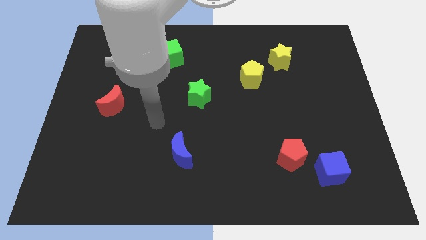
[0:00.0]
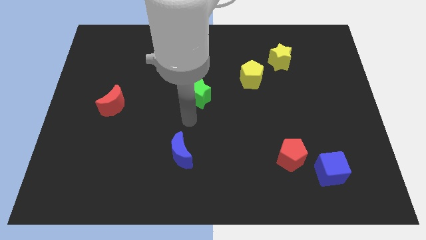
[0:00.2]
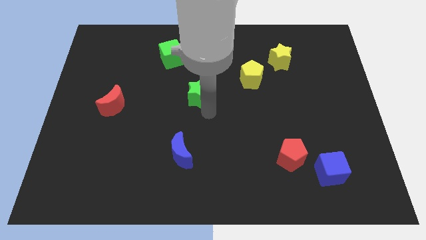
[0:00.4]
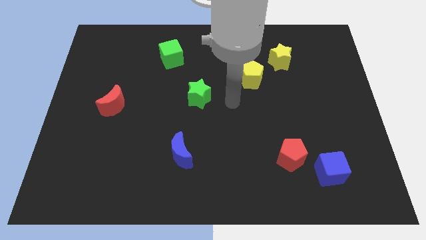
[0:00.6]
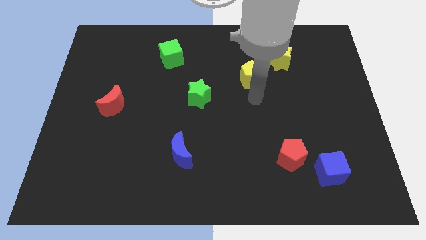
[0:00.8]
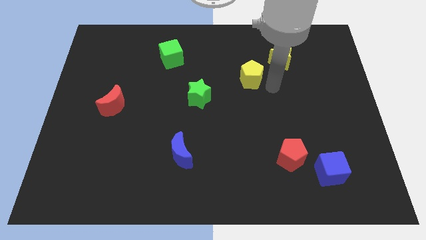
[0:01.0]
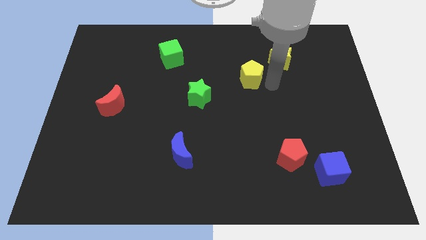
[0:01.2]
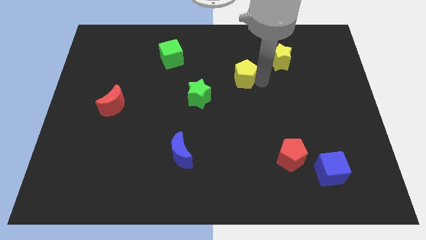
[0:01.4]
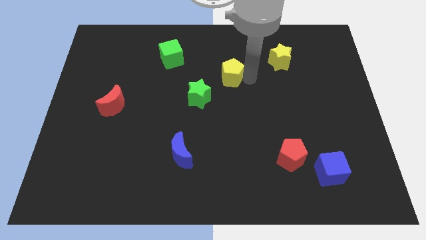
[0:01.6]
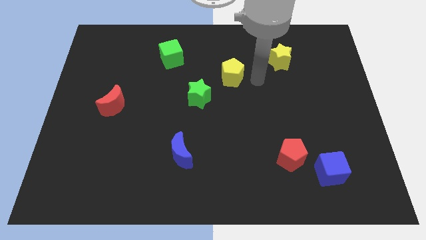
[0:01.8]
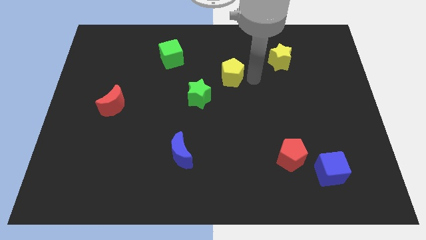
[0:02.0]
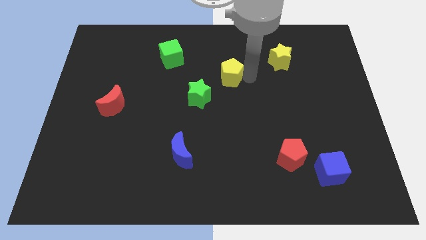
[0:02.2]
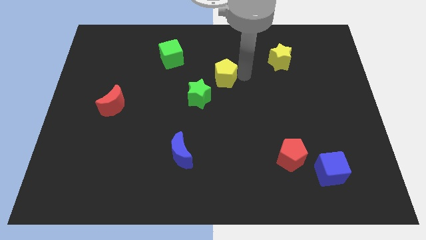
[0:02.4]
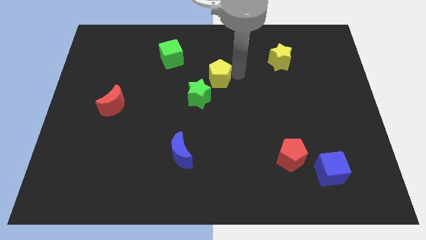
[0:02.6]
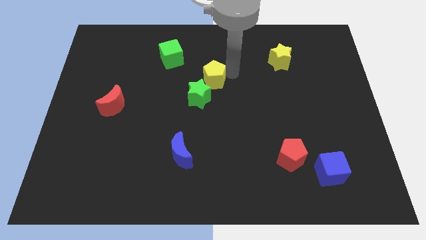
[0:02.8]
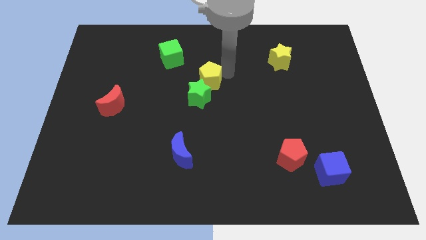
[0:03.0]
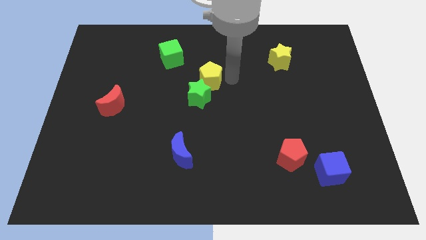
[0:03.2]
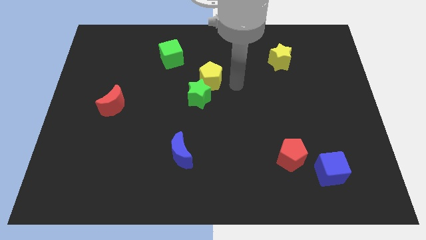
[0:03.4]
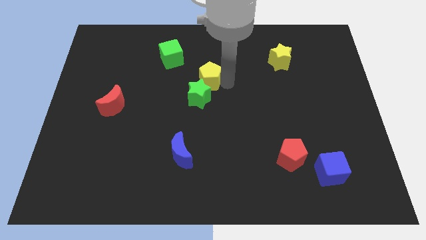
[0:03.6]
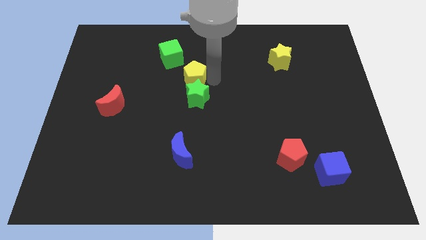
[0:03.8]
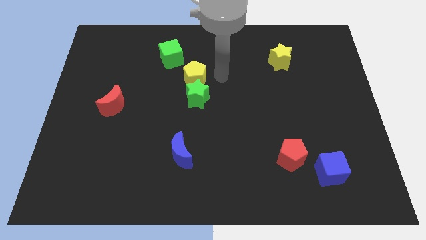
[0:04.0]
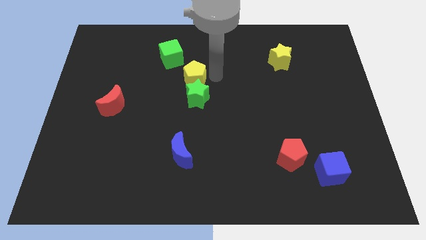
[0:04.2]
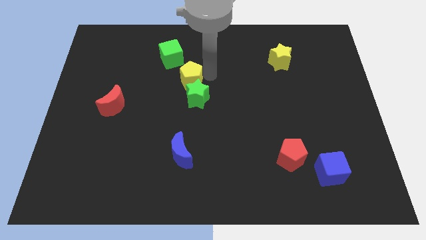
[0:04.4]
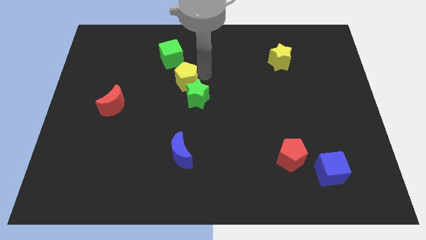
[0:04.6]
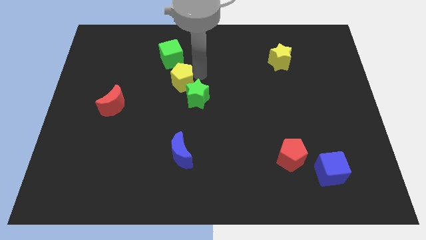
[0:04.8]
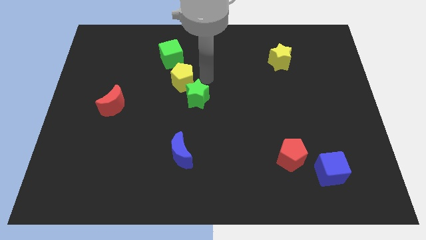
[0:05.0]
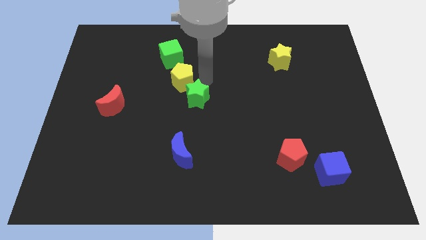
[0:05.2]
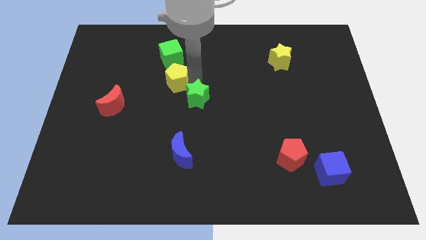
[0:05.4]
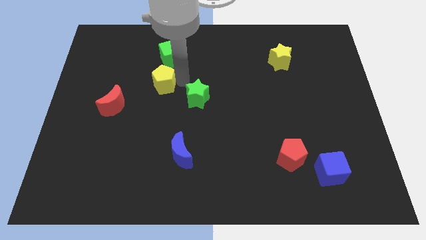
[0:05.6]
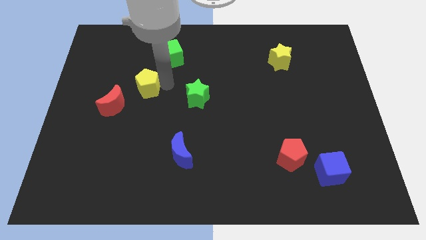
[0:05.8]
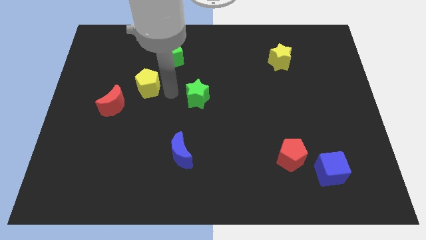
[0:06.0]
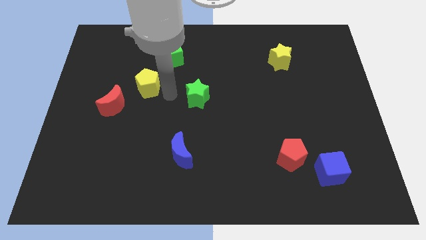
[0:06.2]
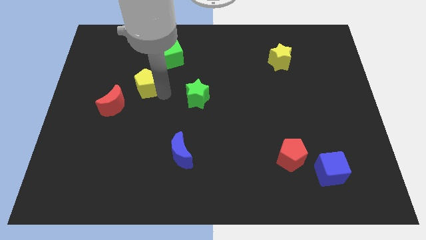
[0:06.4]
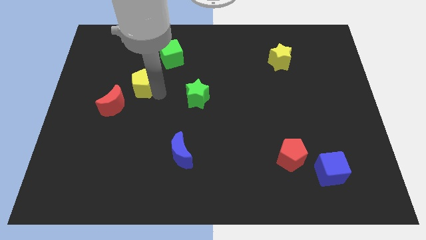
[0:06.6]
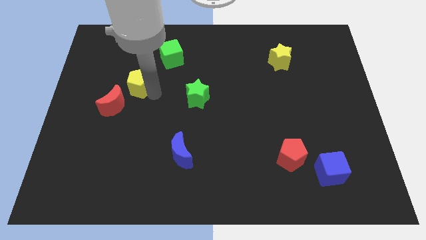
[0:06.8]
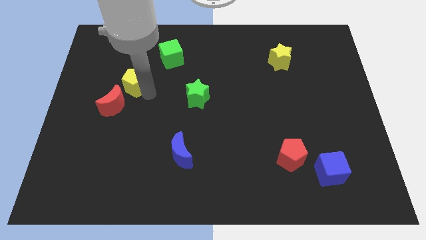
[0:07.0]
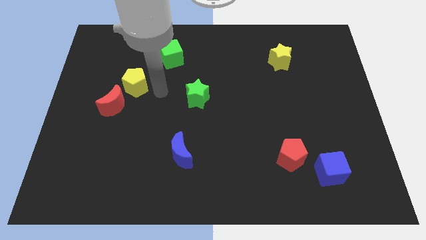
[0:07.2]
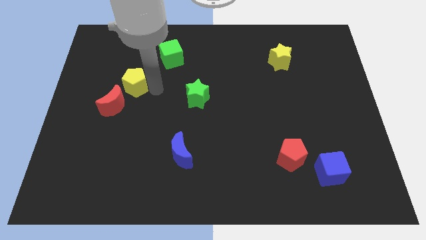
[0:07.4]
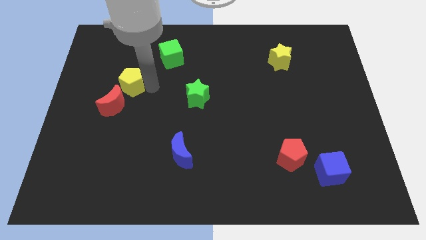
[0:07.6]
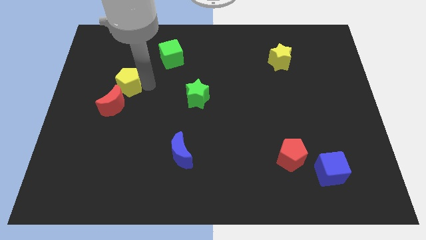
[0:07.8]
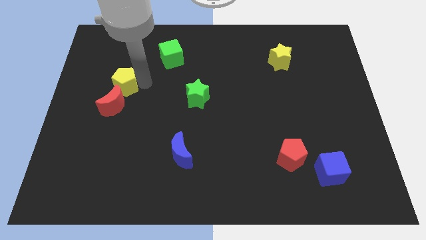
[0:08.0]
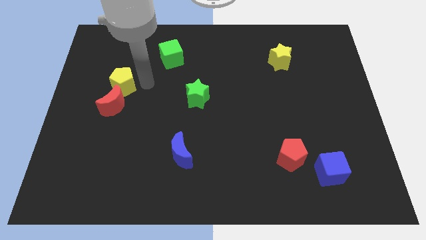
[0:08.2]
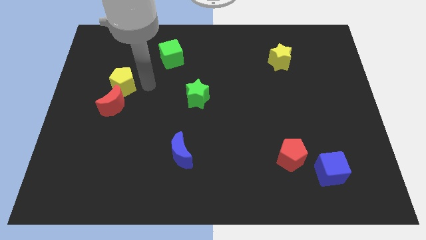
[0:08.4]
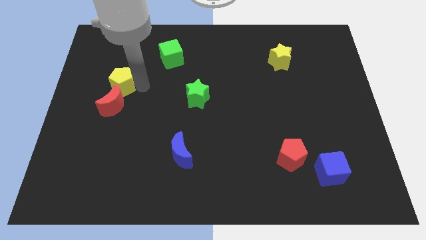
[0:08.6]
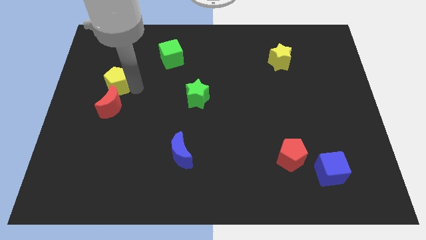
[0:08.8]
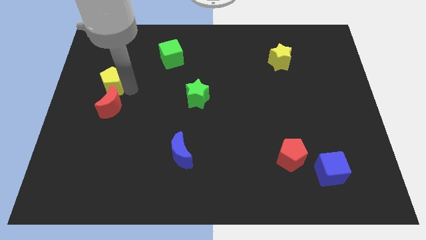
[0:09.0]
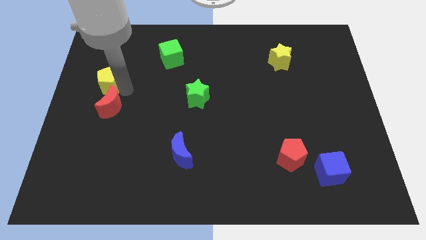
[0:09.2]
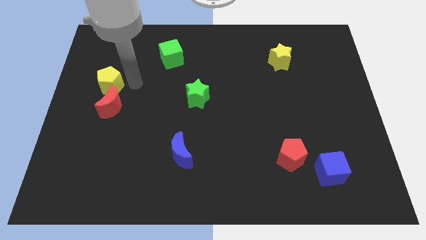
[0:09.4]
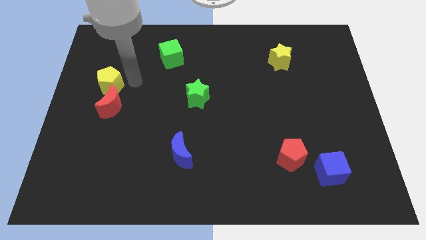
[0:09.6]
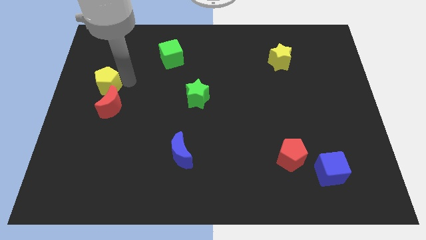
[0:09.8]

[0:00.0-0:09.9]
push the yellow pentagon to the center left

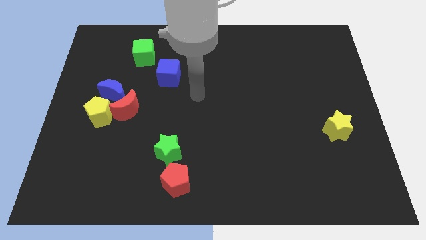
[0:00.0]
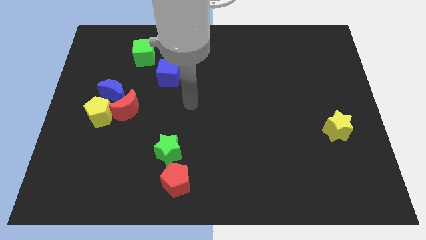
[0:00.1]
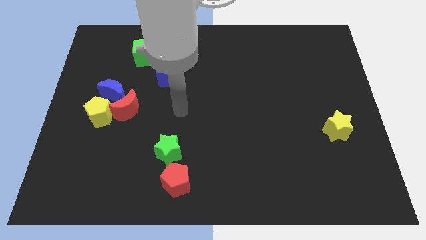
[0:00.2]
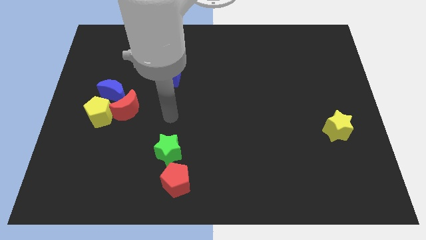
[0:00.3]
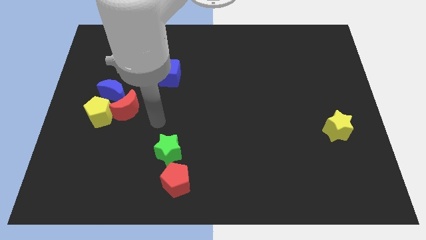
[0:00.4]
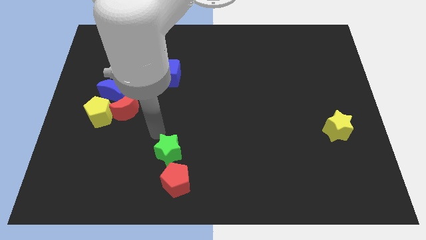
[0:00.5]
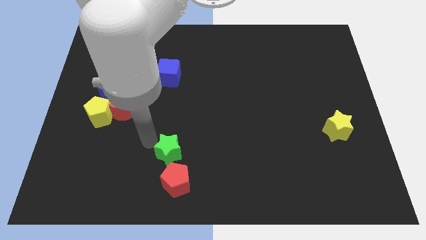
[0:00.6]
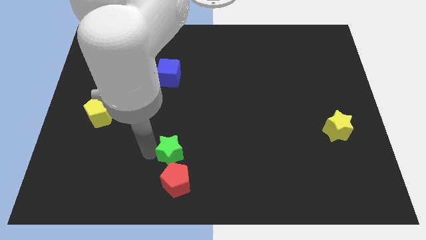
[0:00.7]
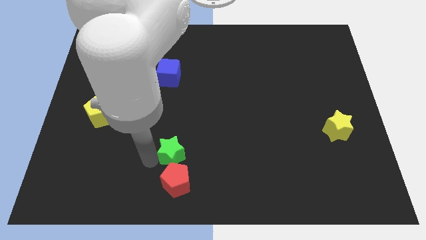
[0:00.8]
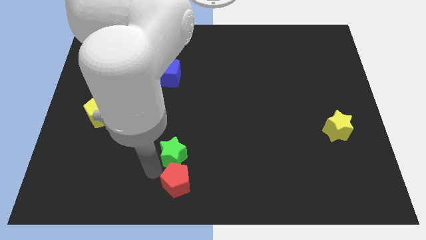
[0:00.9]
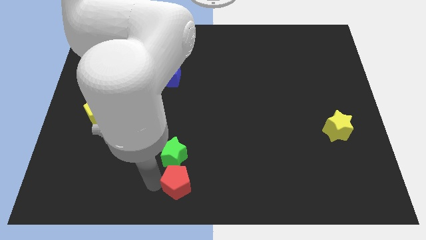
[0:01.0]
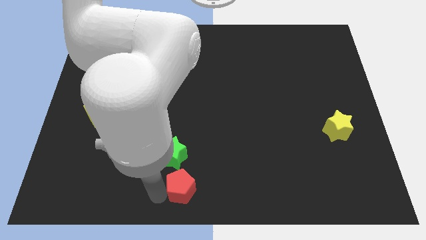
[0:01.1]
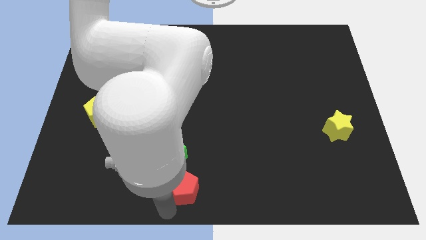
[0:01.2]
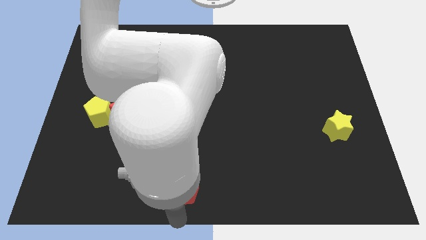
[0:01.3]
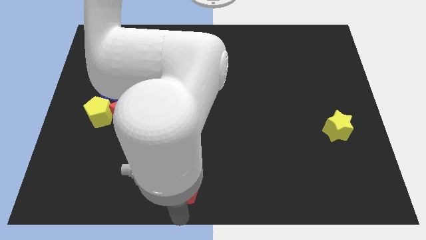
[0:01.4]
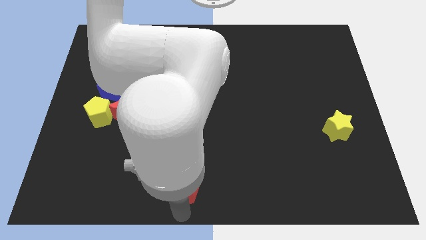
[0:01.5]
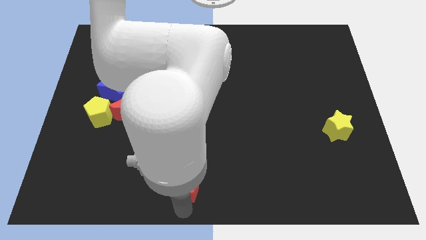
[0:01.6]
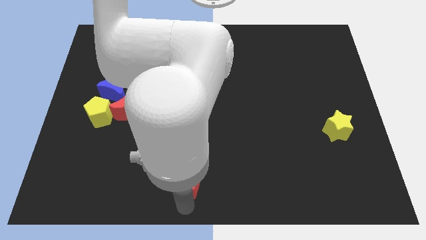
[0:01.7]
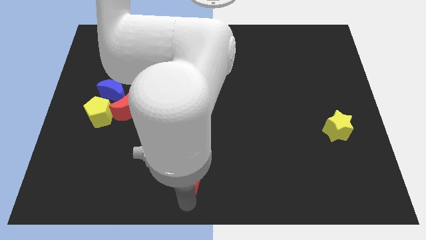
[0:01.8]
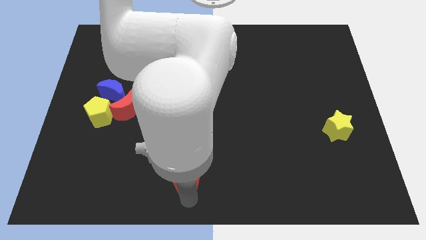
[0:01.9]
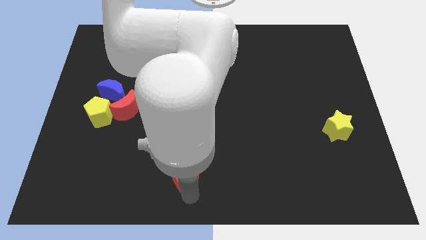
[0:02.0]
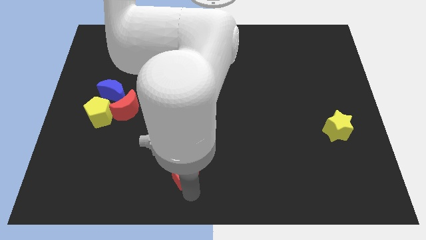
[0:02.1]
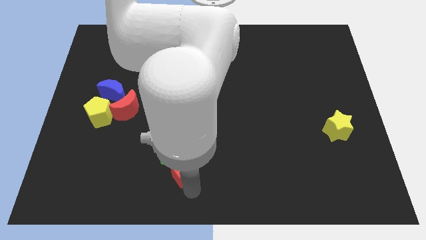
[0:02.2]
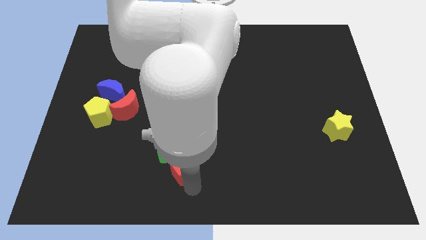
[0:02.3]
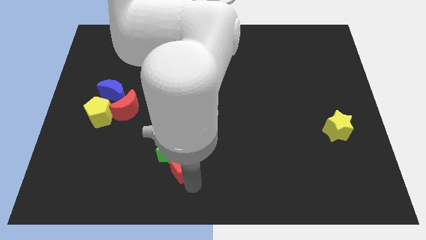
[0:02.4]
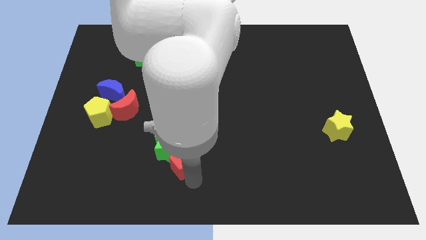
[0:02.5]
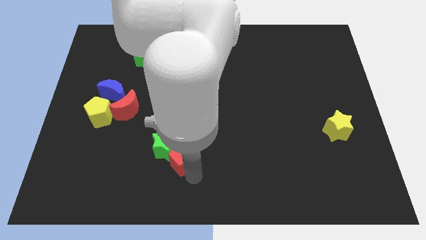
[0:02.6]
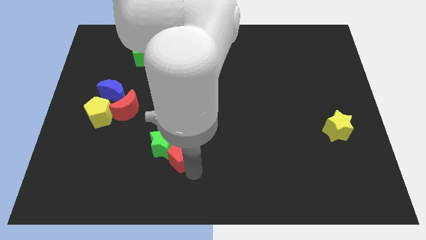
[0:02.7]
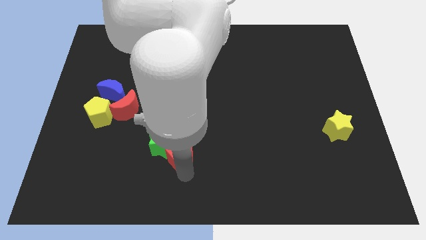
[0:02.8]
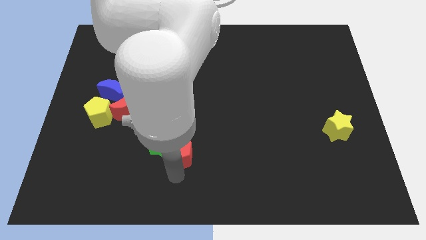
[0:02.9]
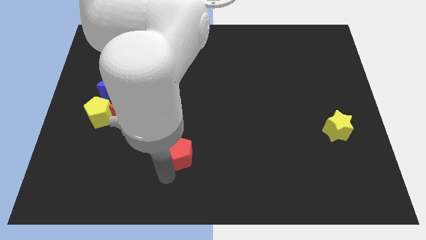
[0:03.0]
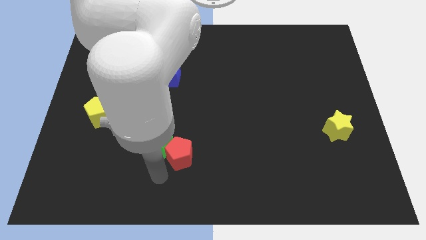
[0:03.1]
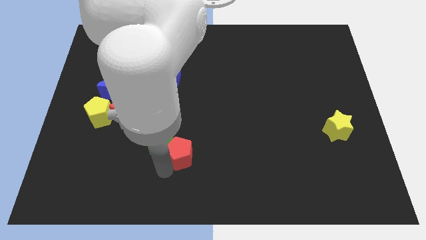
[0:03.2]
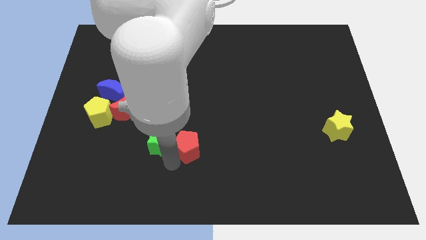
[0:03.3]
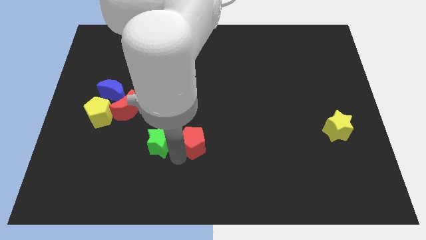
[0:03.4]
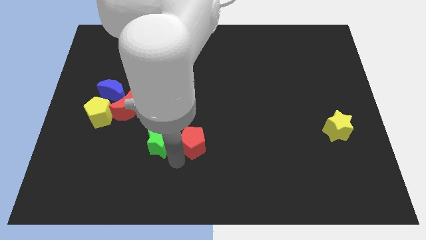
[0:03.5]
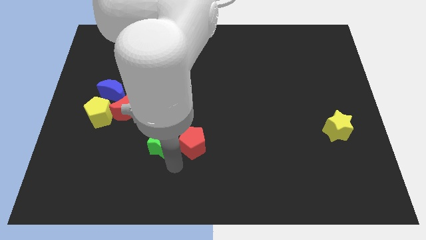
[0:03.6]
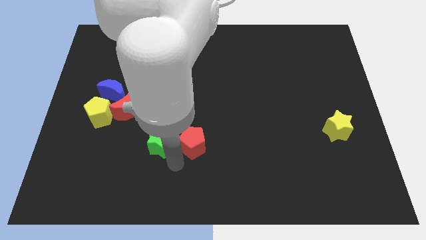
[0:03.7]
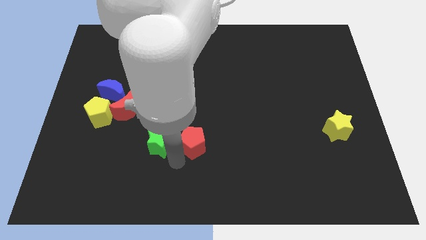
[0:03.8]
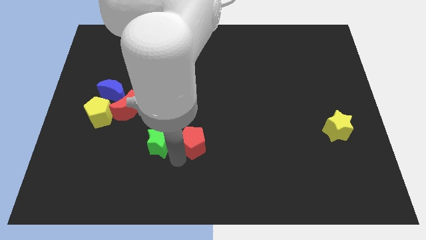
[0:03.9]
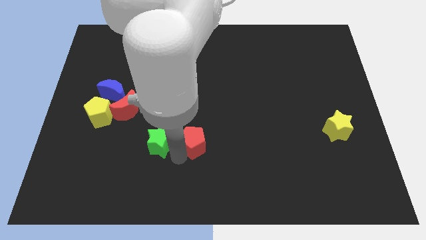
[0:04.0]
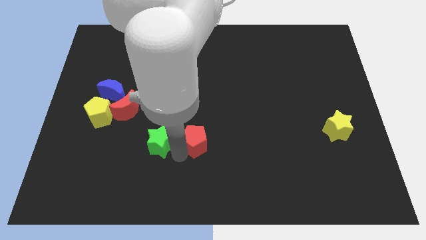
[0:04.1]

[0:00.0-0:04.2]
put the red pentagon to the center of the board
